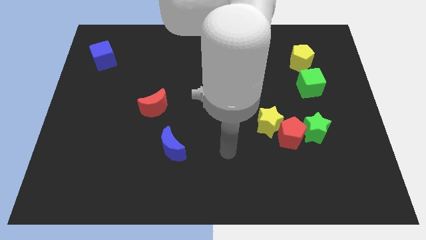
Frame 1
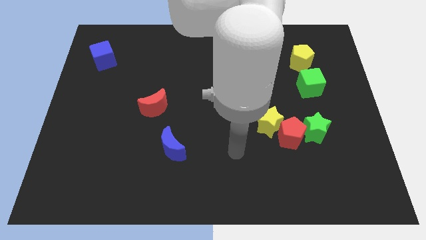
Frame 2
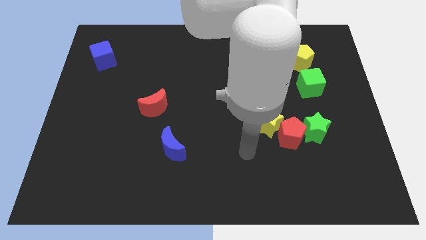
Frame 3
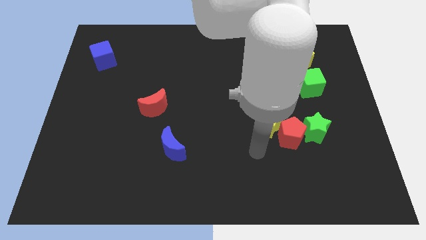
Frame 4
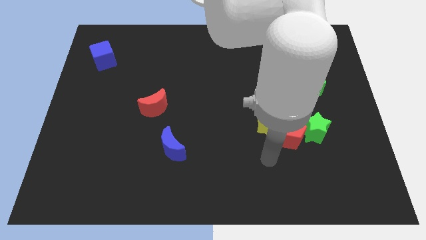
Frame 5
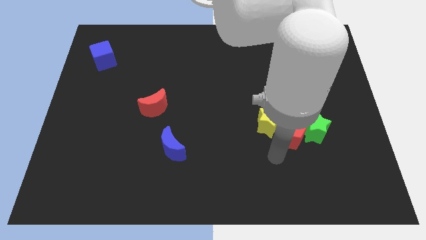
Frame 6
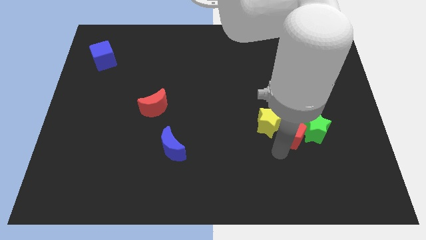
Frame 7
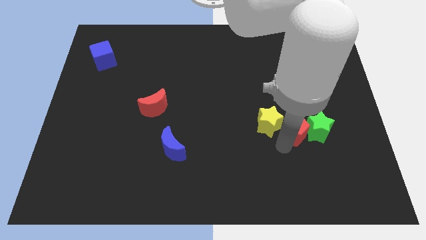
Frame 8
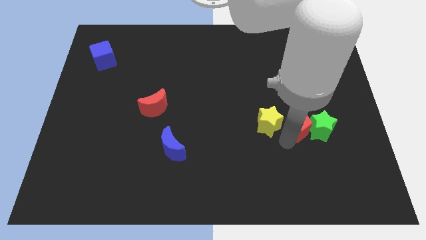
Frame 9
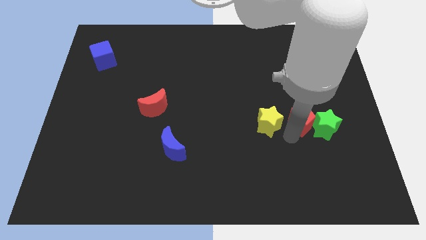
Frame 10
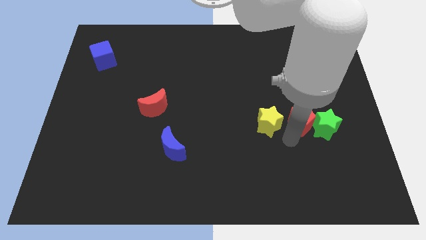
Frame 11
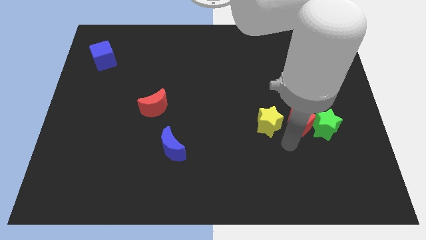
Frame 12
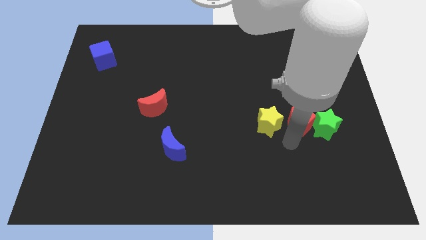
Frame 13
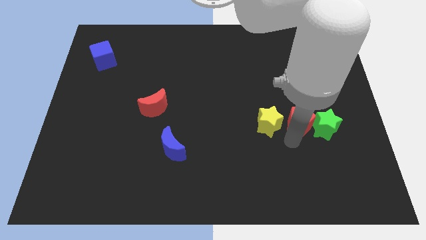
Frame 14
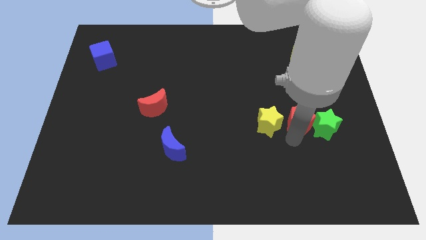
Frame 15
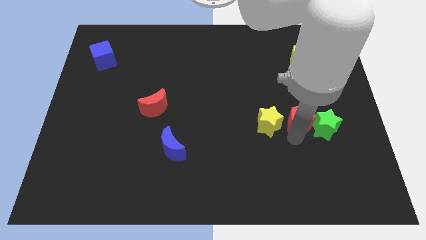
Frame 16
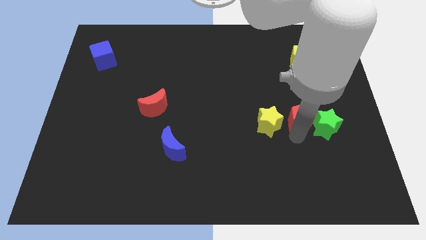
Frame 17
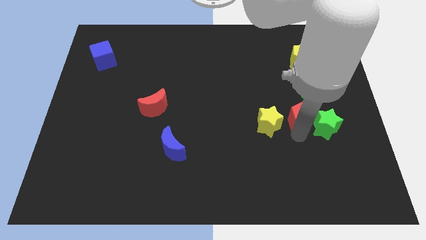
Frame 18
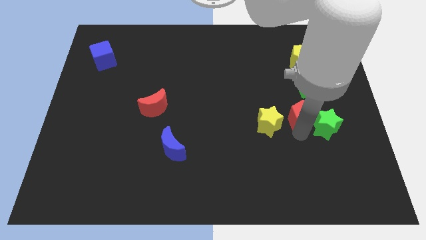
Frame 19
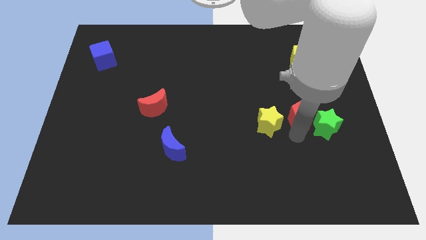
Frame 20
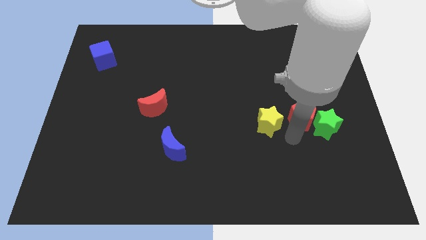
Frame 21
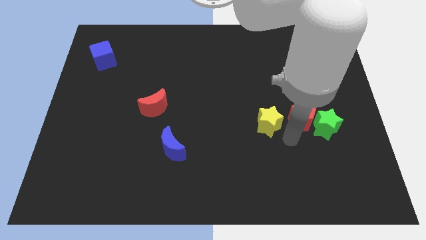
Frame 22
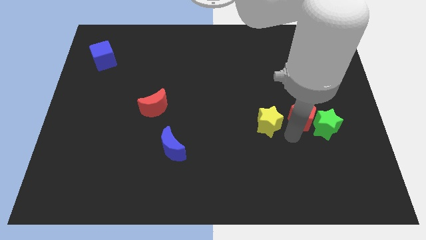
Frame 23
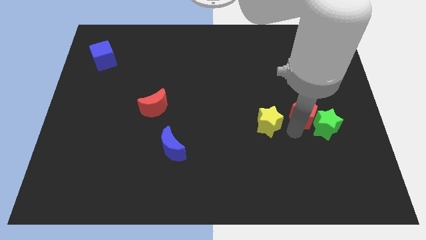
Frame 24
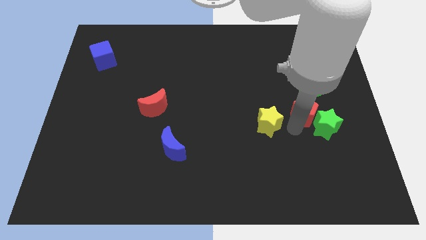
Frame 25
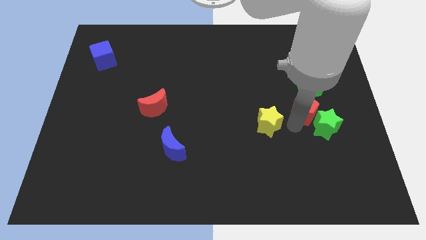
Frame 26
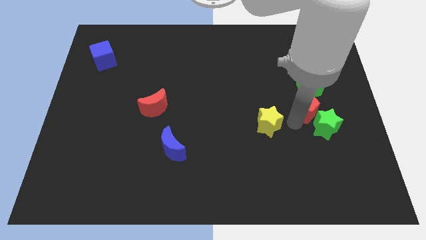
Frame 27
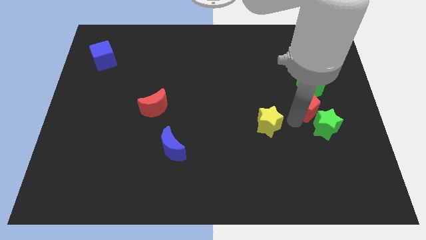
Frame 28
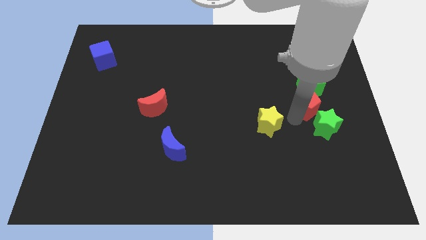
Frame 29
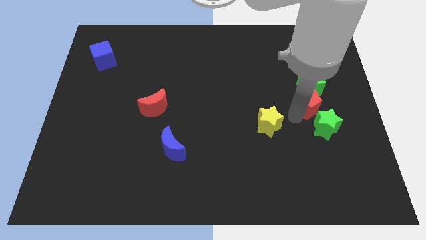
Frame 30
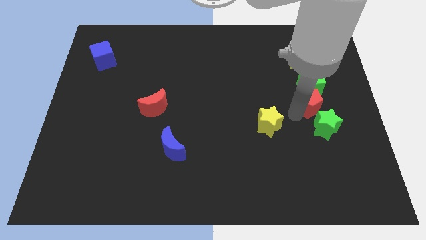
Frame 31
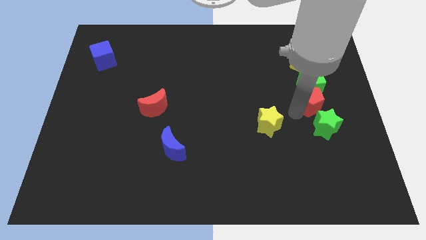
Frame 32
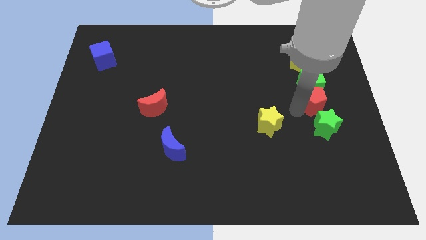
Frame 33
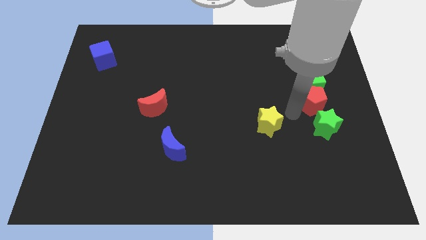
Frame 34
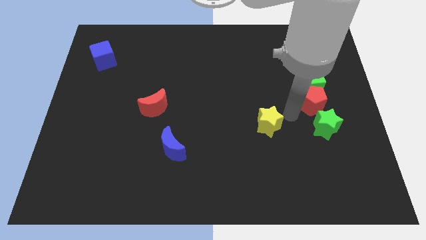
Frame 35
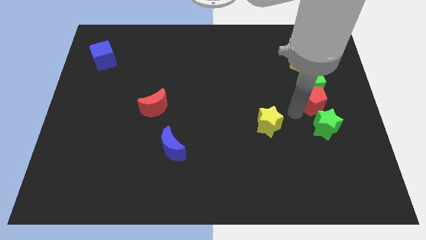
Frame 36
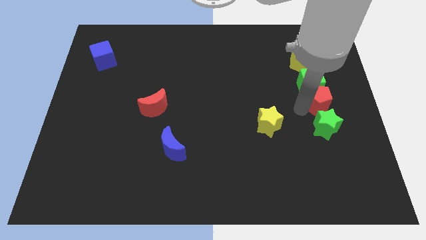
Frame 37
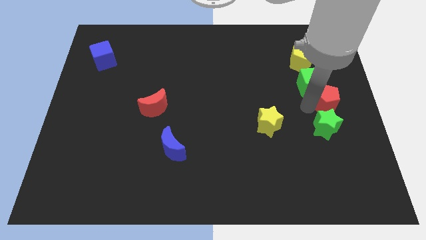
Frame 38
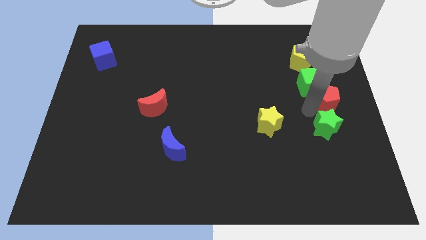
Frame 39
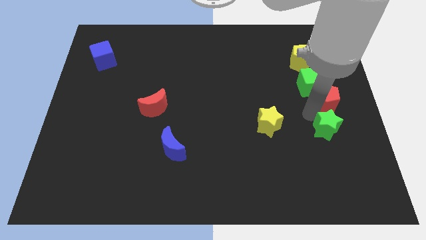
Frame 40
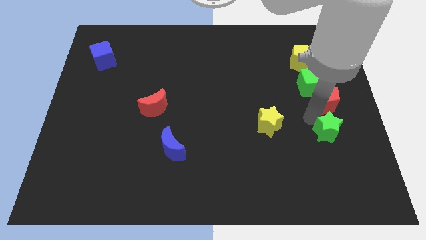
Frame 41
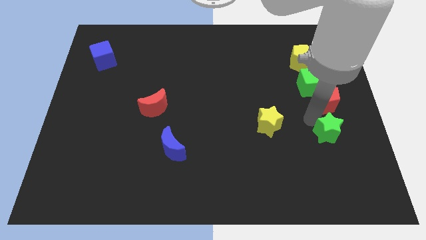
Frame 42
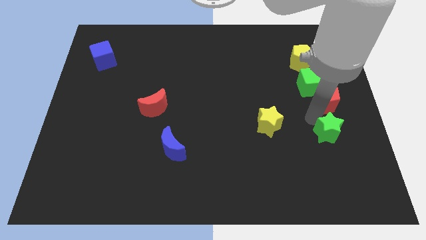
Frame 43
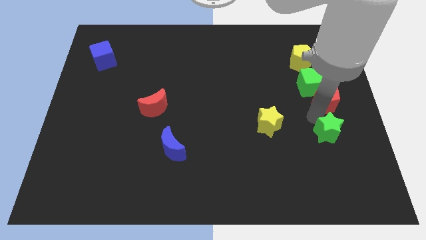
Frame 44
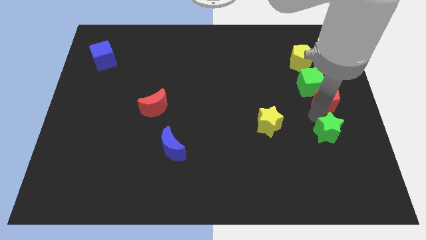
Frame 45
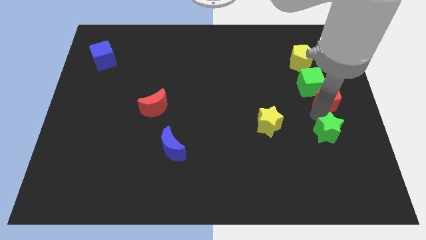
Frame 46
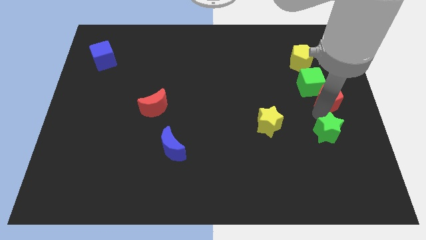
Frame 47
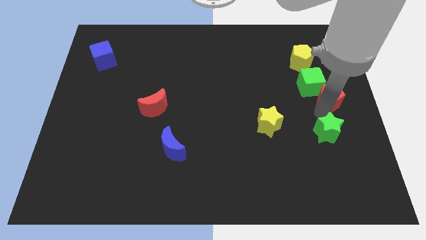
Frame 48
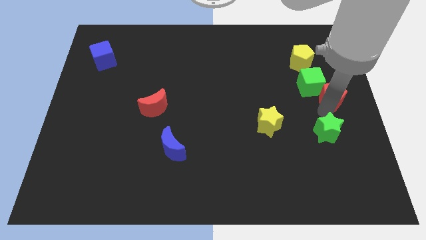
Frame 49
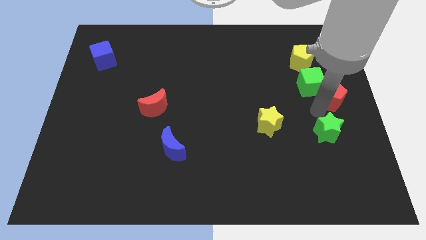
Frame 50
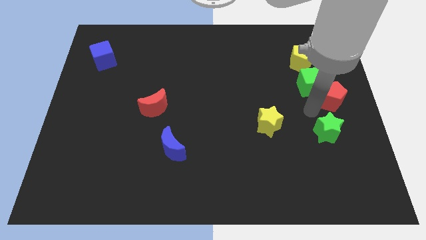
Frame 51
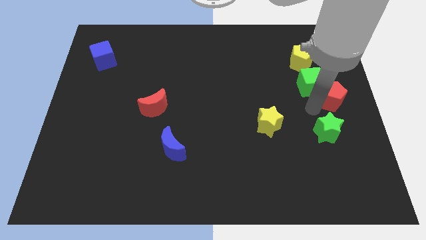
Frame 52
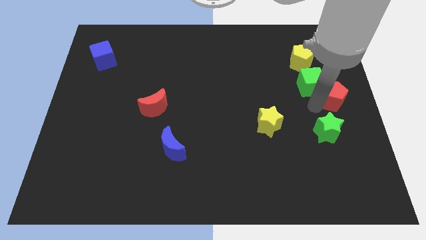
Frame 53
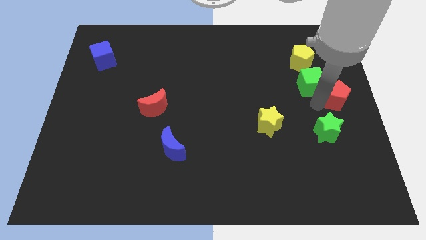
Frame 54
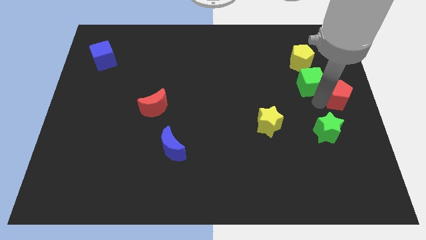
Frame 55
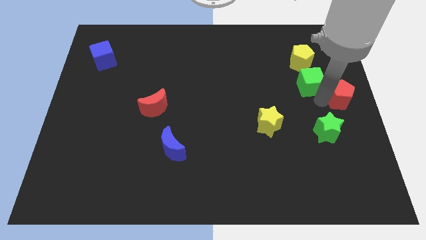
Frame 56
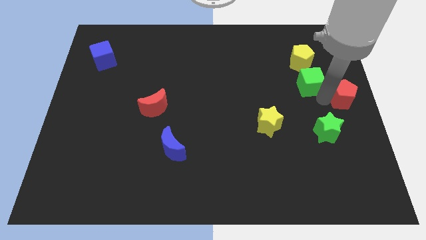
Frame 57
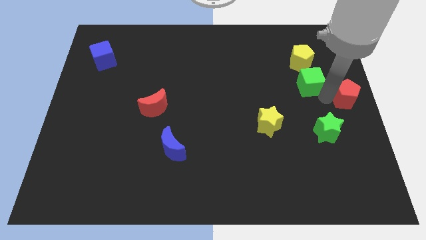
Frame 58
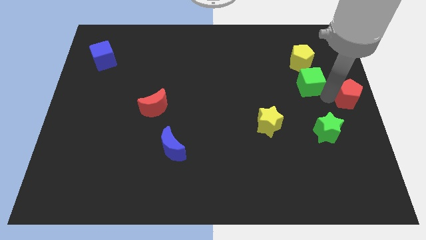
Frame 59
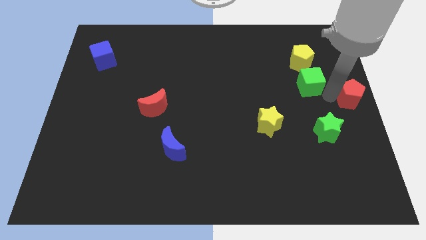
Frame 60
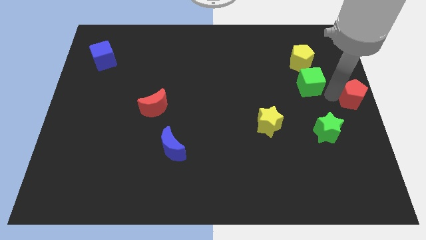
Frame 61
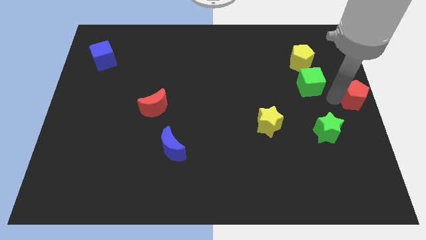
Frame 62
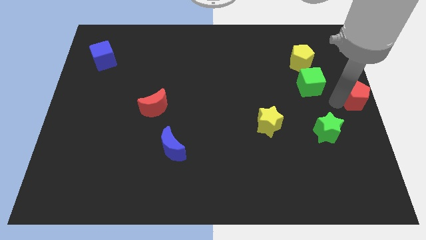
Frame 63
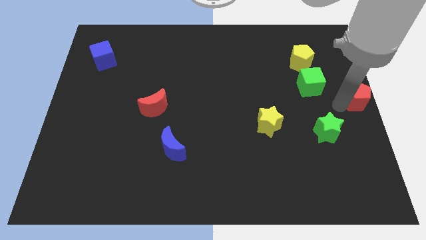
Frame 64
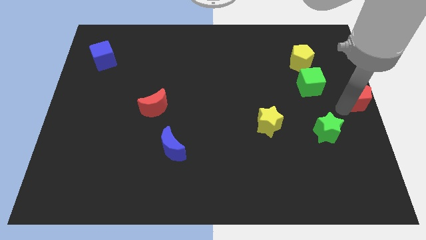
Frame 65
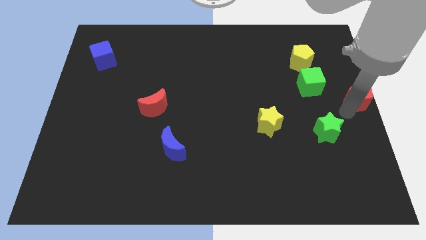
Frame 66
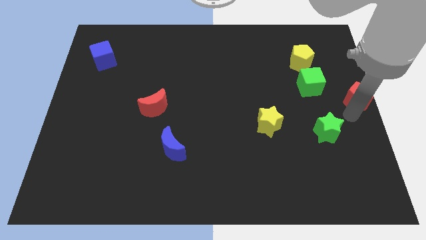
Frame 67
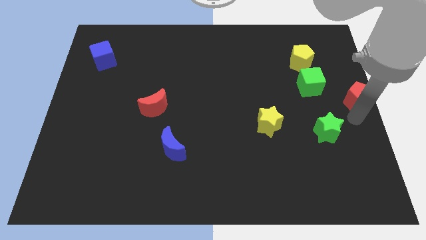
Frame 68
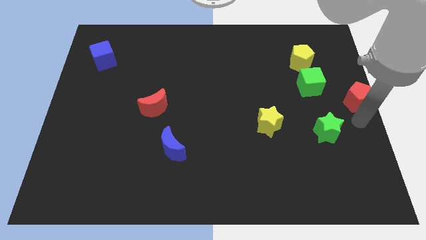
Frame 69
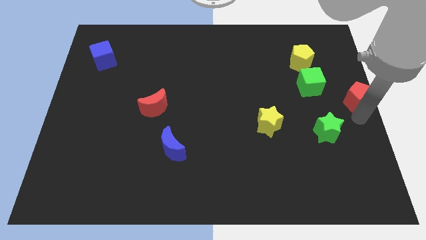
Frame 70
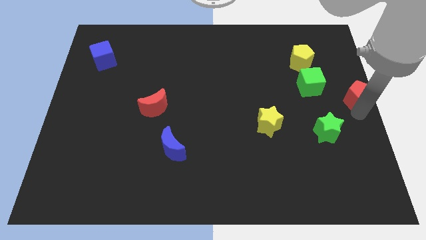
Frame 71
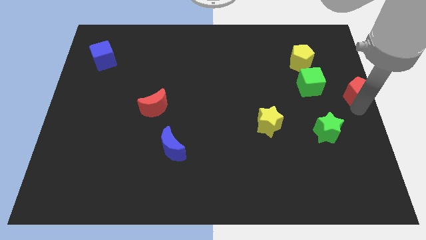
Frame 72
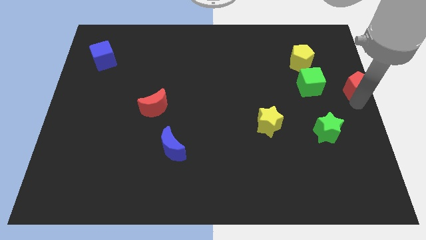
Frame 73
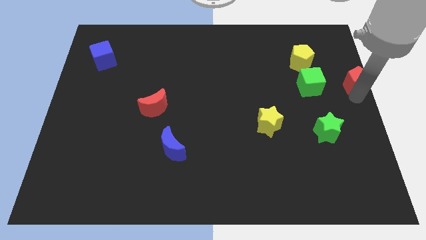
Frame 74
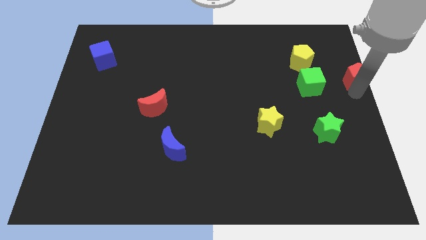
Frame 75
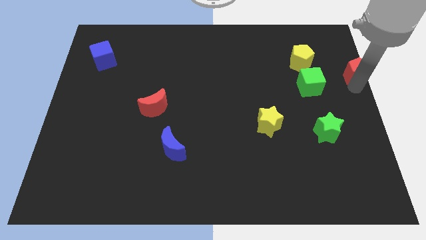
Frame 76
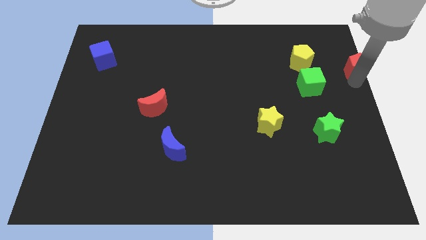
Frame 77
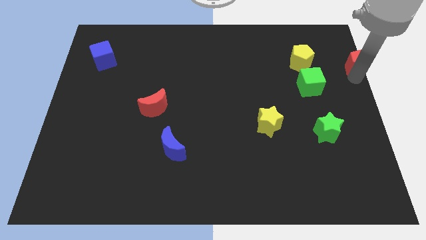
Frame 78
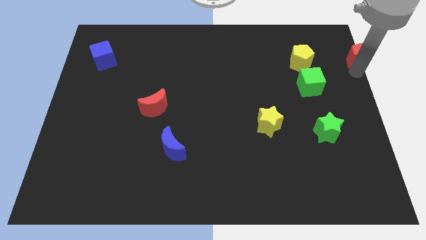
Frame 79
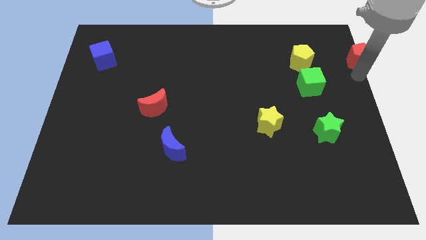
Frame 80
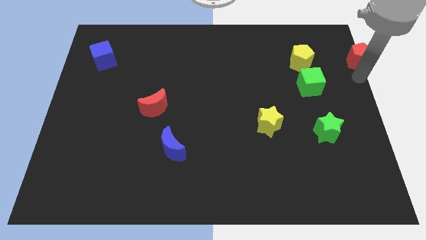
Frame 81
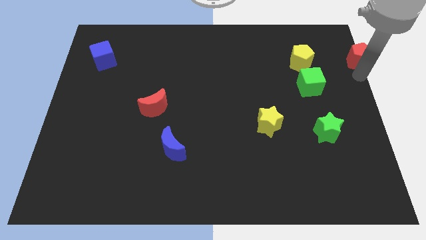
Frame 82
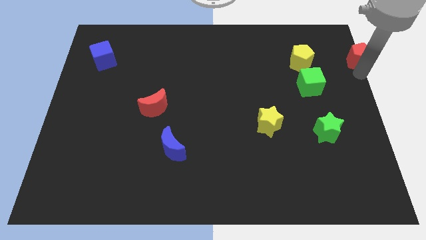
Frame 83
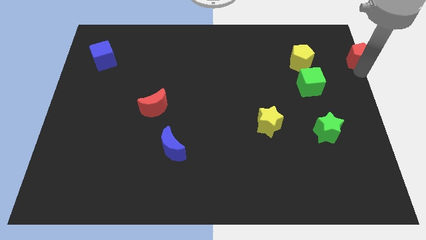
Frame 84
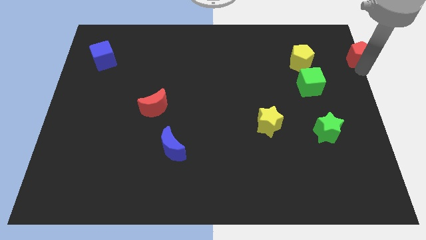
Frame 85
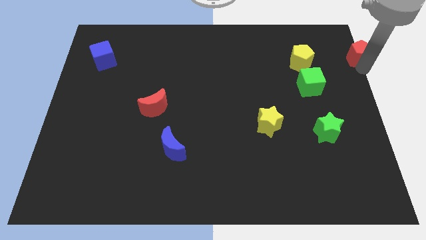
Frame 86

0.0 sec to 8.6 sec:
move the red pentagon to the upper right corner
